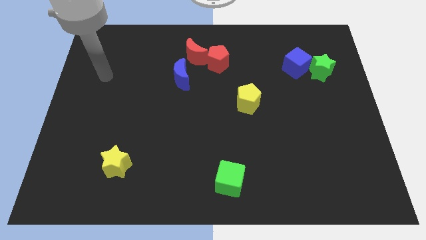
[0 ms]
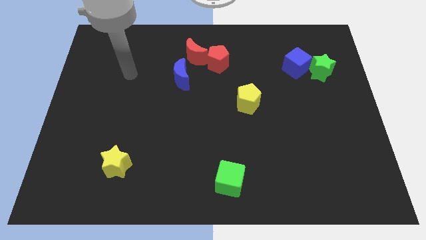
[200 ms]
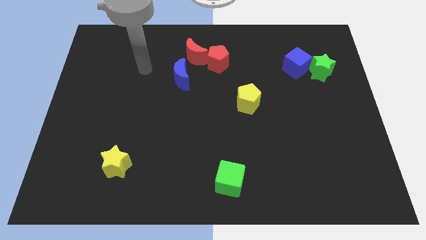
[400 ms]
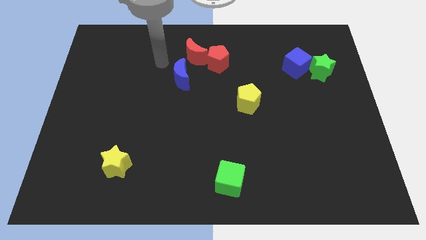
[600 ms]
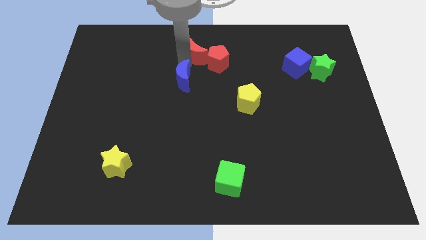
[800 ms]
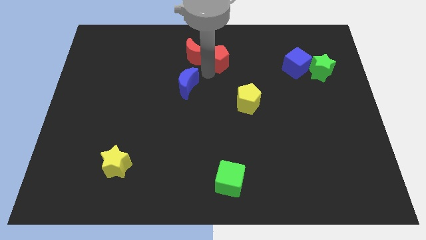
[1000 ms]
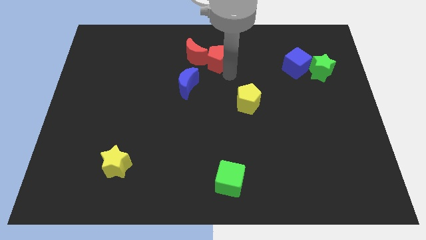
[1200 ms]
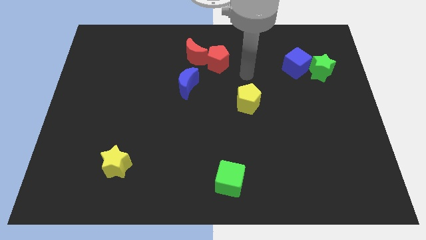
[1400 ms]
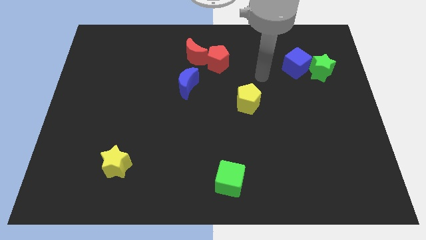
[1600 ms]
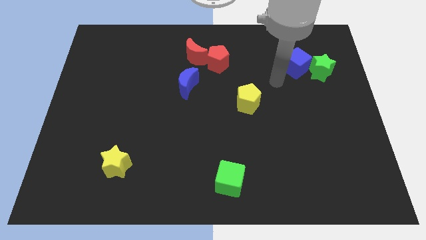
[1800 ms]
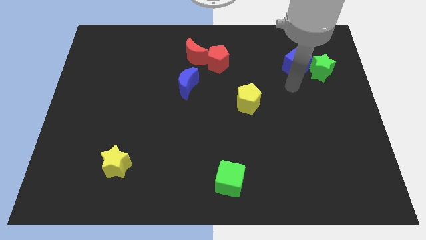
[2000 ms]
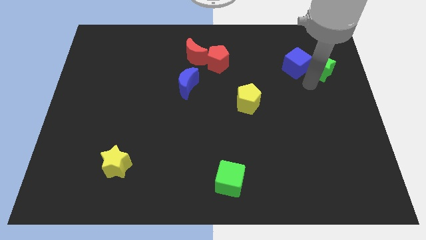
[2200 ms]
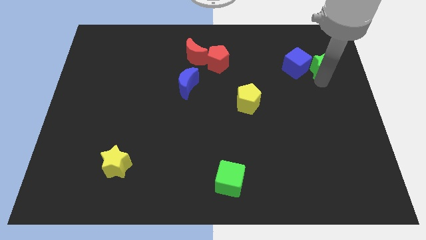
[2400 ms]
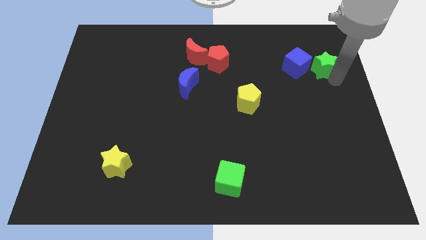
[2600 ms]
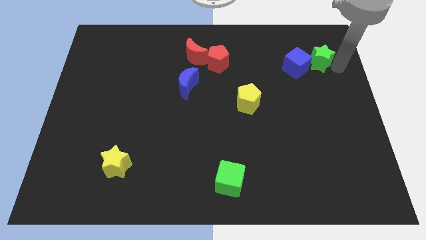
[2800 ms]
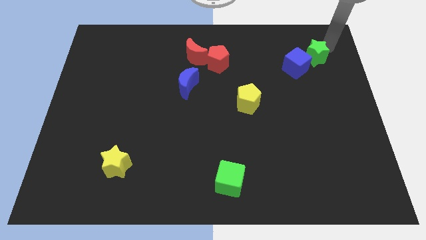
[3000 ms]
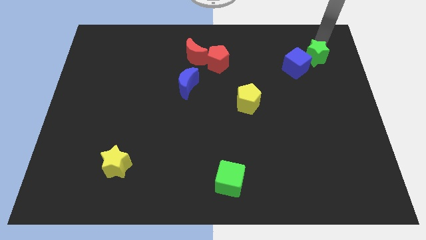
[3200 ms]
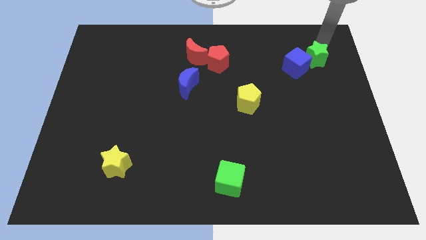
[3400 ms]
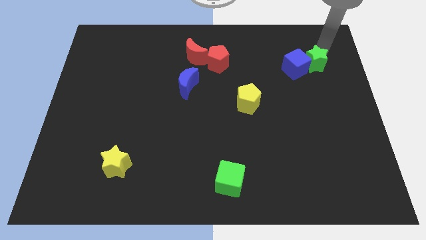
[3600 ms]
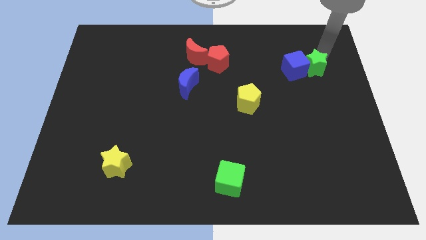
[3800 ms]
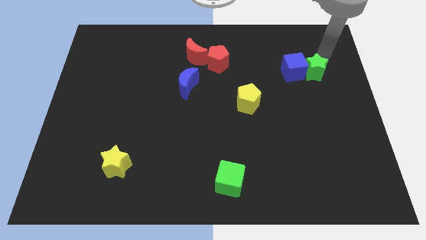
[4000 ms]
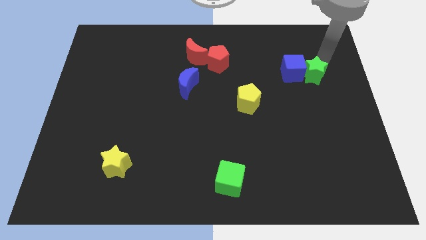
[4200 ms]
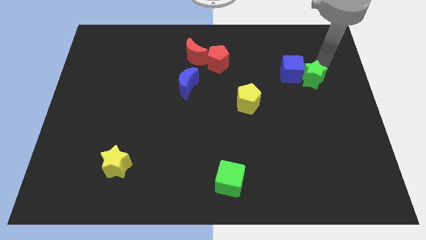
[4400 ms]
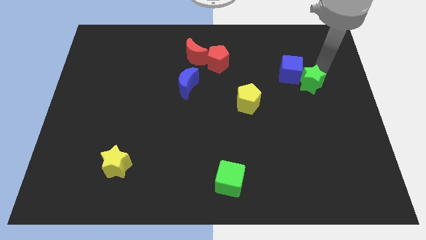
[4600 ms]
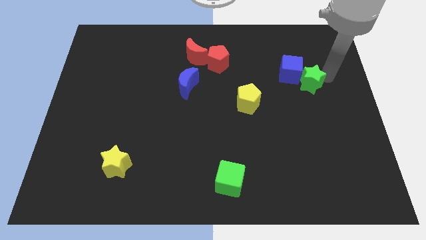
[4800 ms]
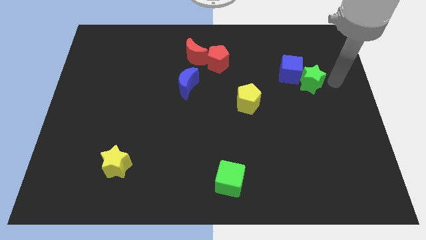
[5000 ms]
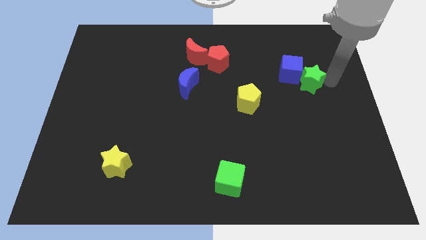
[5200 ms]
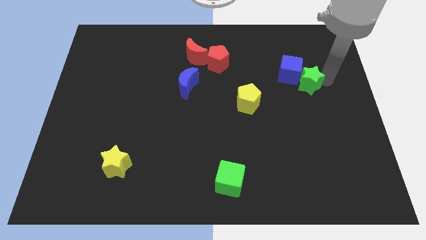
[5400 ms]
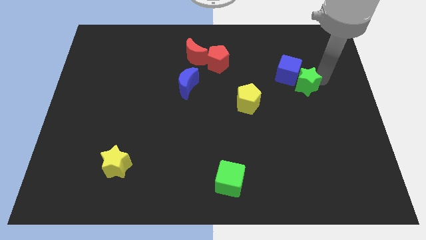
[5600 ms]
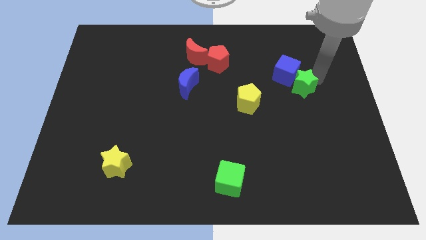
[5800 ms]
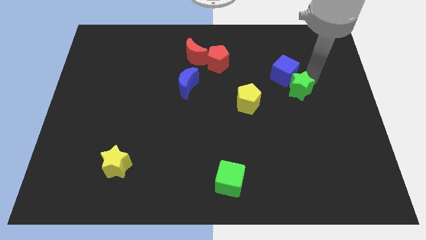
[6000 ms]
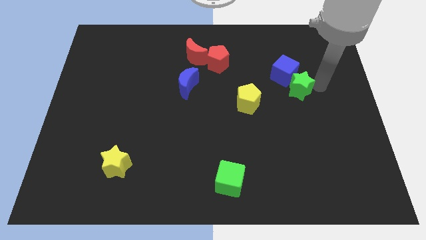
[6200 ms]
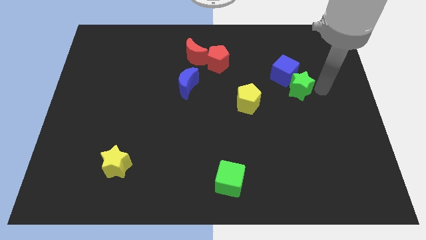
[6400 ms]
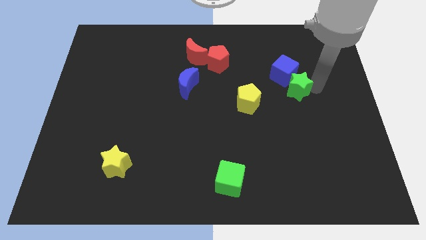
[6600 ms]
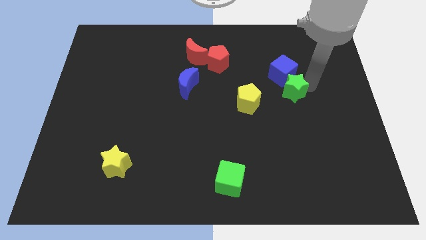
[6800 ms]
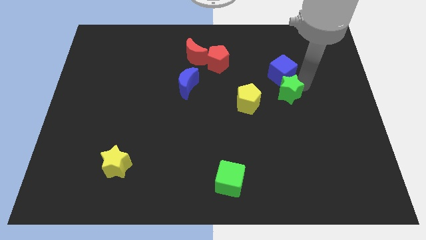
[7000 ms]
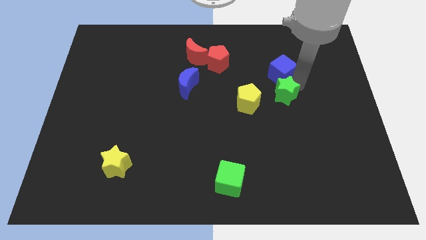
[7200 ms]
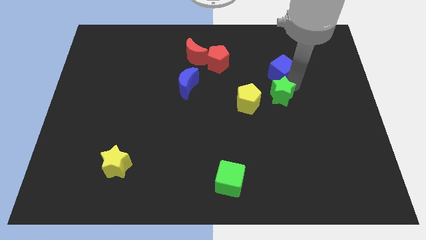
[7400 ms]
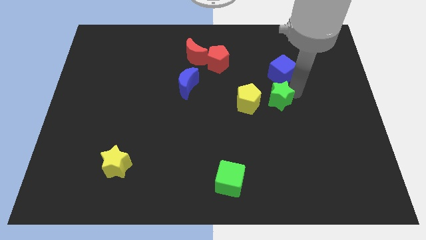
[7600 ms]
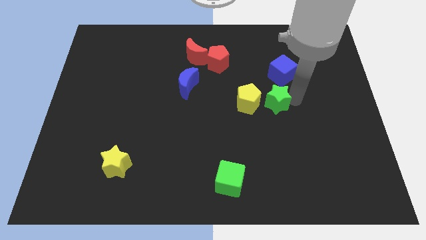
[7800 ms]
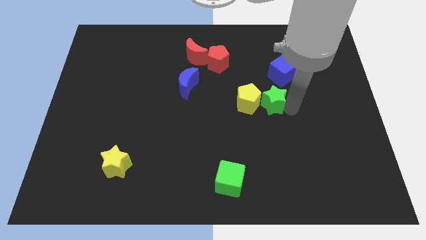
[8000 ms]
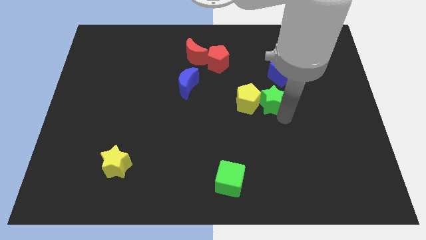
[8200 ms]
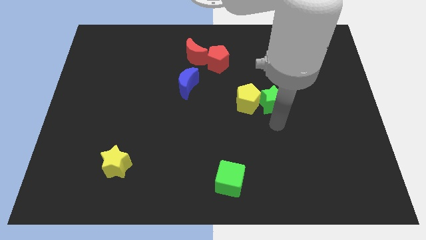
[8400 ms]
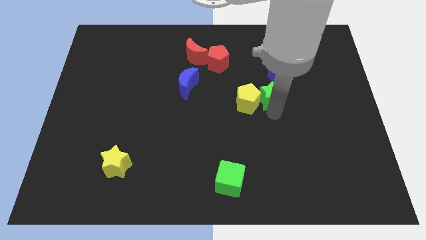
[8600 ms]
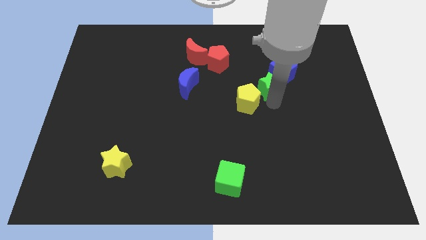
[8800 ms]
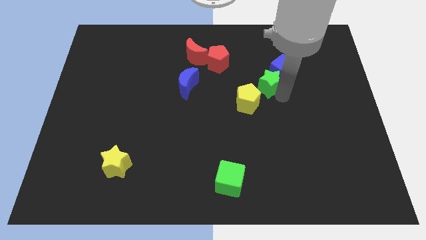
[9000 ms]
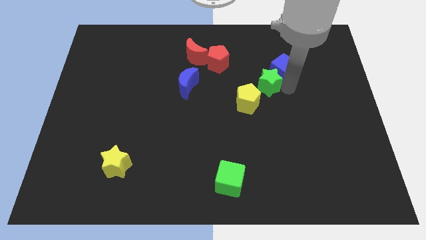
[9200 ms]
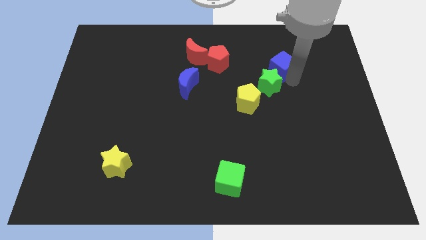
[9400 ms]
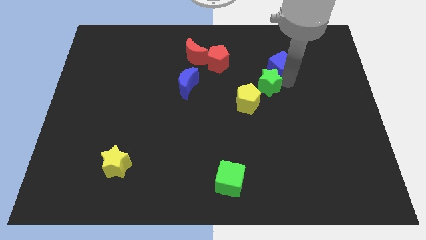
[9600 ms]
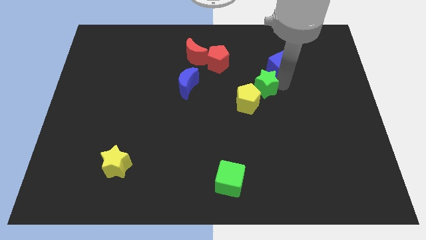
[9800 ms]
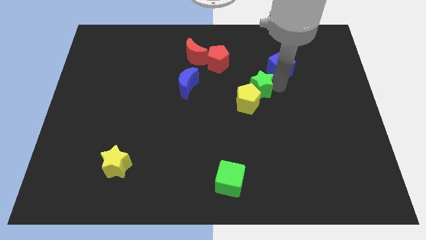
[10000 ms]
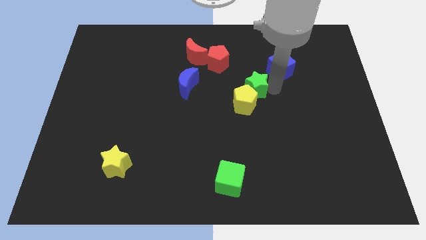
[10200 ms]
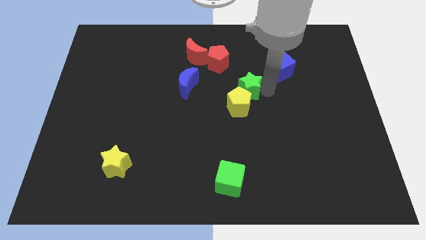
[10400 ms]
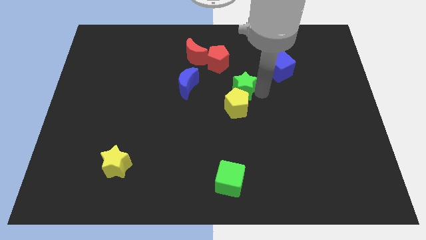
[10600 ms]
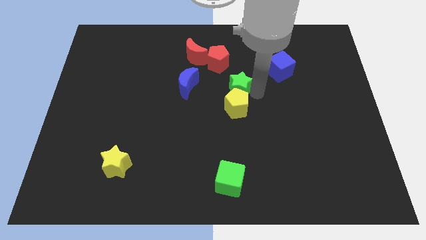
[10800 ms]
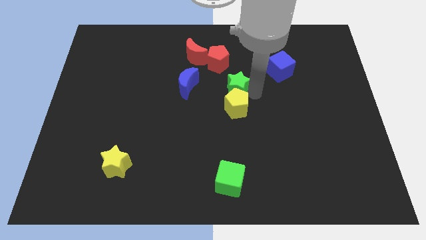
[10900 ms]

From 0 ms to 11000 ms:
push the green star to the left

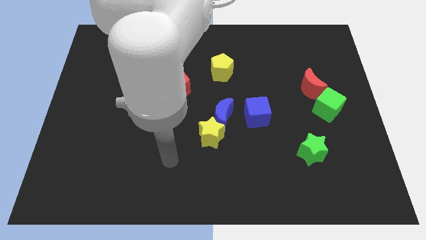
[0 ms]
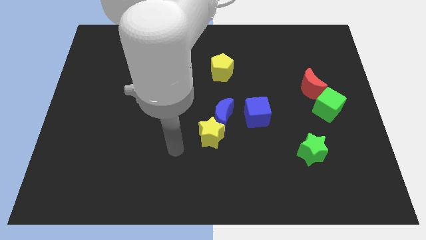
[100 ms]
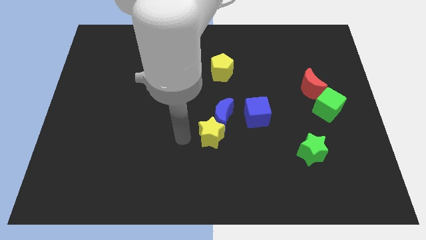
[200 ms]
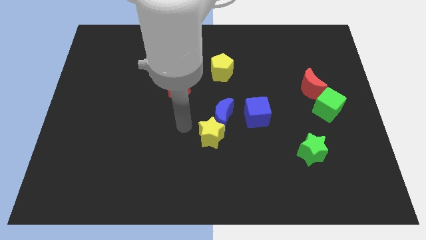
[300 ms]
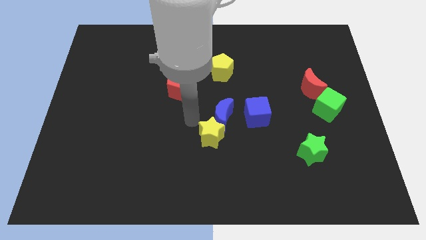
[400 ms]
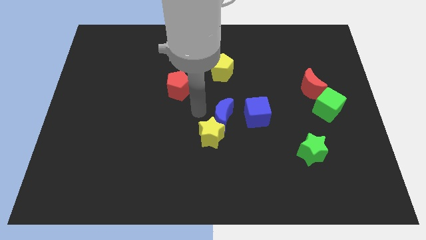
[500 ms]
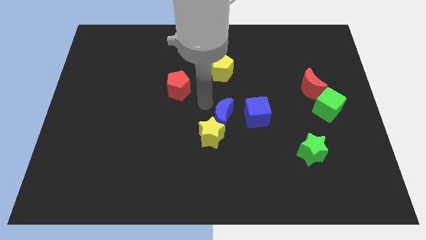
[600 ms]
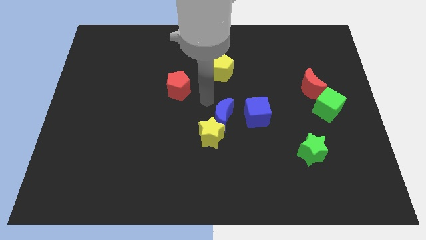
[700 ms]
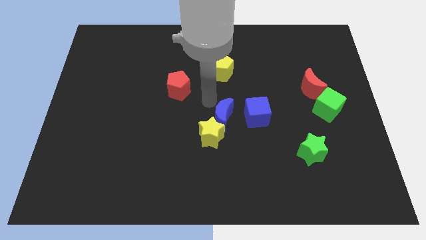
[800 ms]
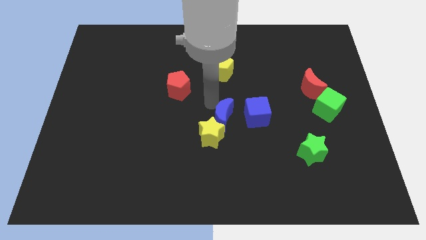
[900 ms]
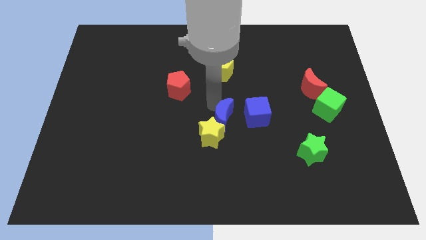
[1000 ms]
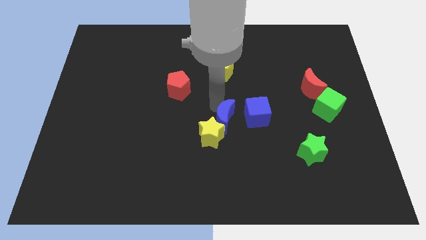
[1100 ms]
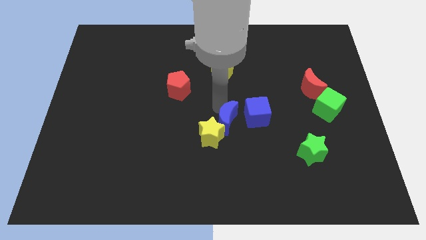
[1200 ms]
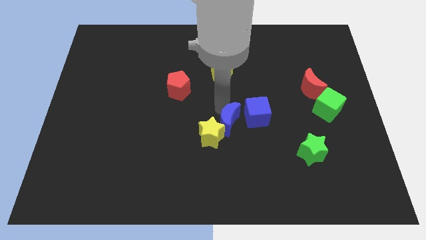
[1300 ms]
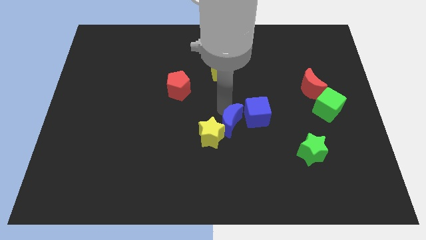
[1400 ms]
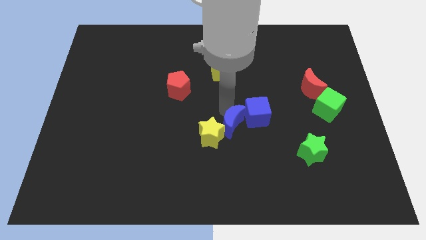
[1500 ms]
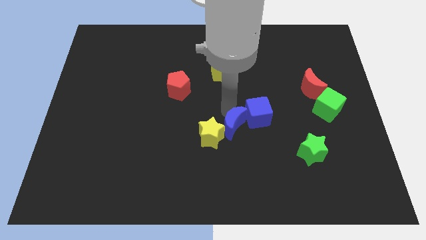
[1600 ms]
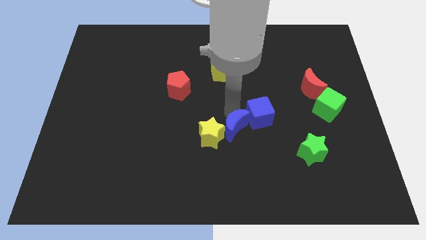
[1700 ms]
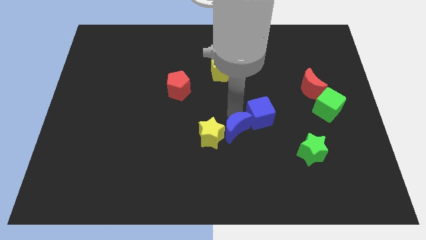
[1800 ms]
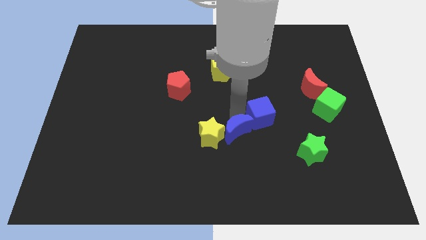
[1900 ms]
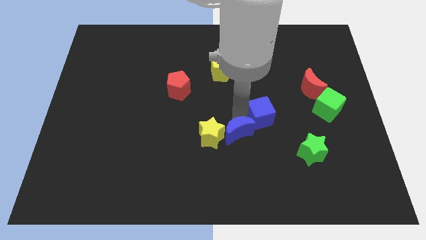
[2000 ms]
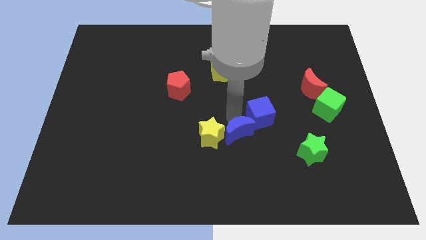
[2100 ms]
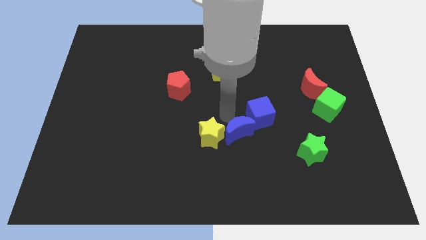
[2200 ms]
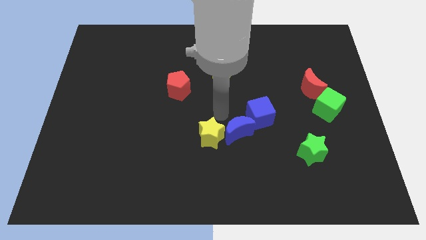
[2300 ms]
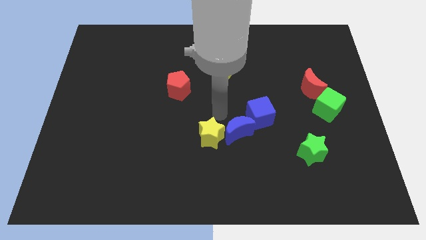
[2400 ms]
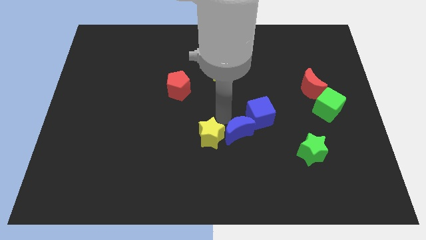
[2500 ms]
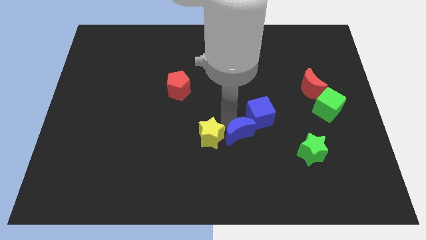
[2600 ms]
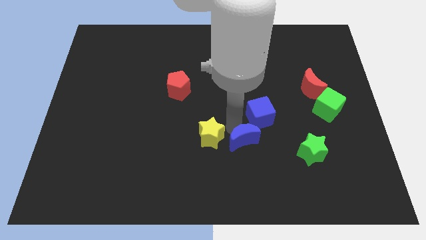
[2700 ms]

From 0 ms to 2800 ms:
slide the blue moon diagonally down and to the right a little bit

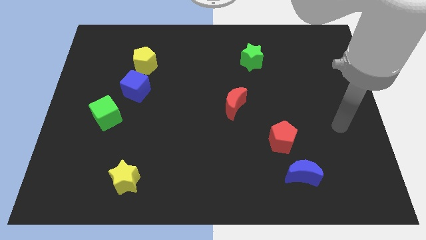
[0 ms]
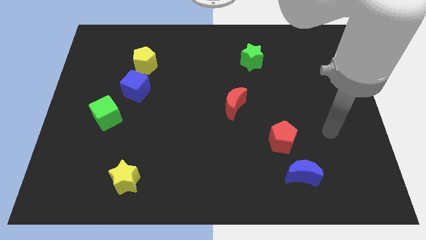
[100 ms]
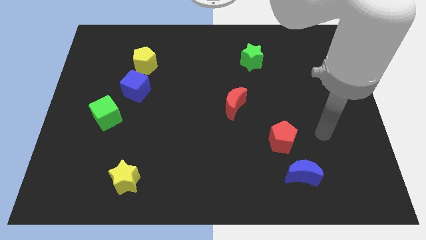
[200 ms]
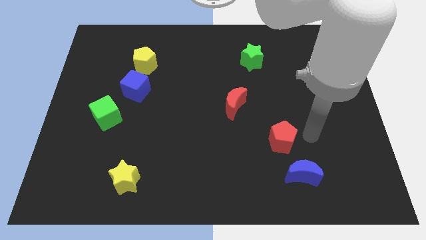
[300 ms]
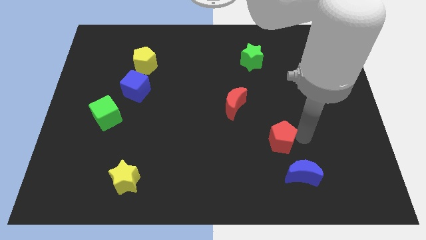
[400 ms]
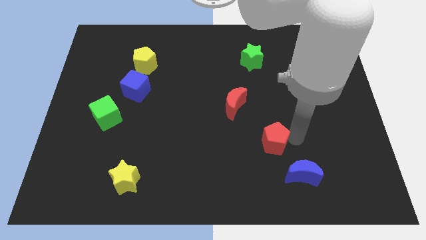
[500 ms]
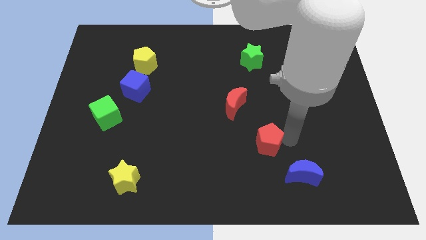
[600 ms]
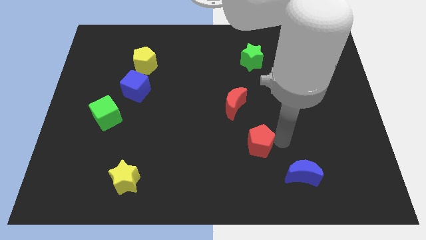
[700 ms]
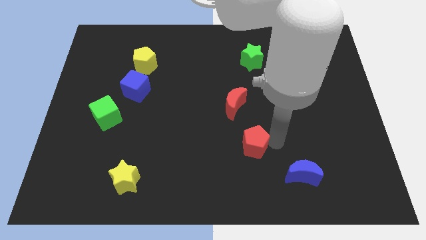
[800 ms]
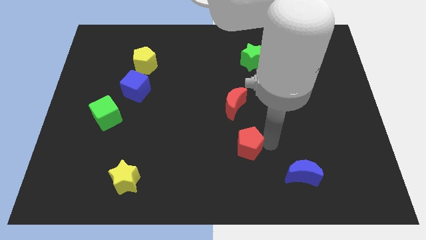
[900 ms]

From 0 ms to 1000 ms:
slightly slide the red pentagon to the left
